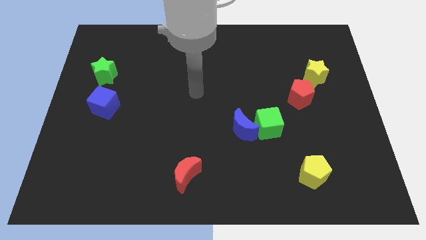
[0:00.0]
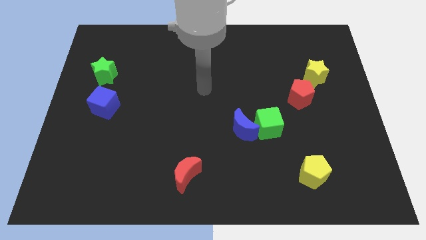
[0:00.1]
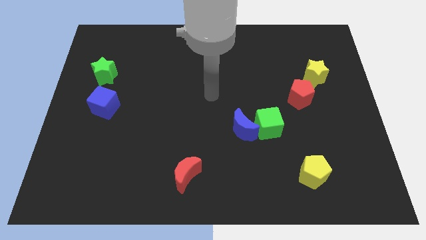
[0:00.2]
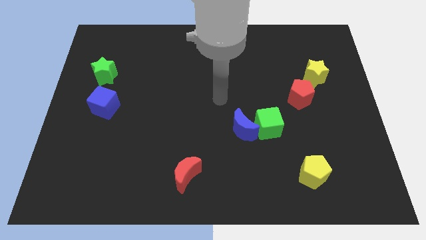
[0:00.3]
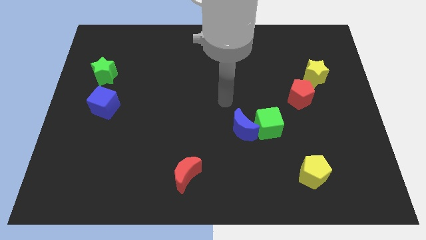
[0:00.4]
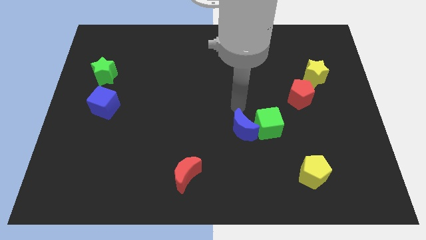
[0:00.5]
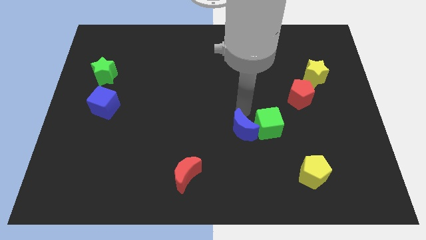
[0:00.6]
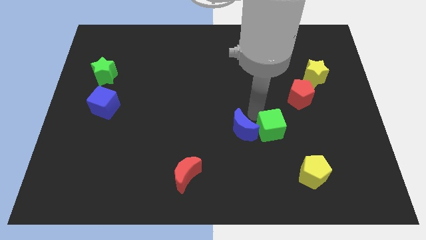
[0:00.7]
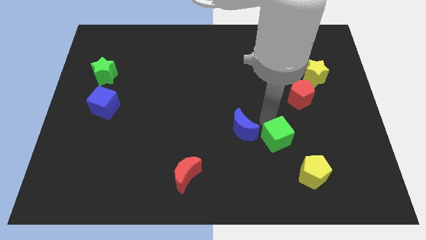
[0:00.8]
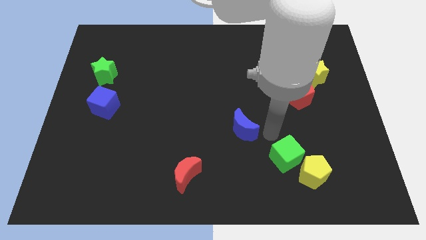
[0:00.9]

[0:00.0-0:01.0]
pull the blue moon apart from the green cube

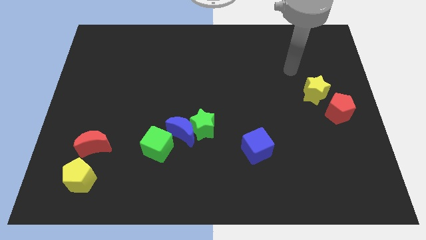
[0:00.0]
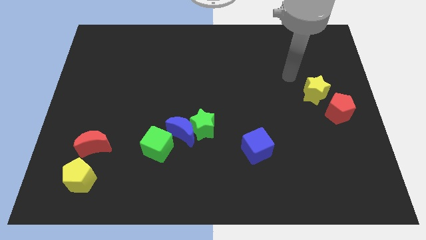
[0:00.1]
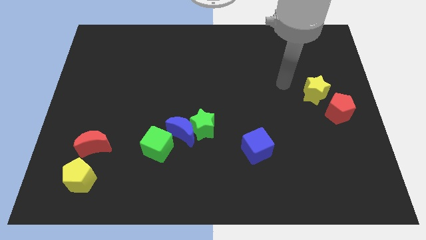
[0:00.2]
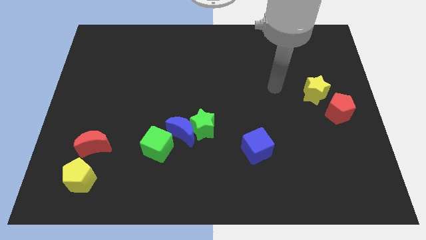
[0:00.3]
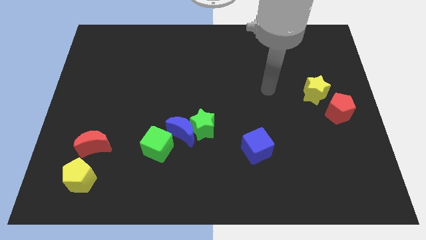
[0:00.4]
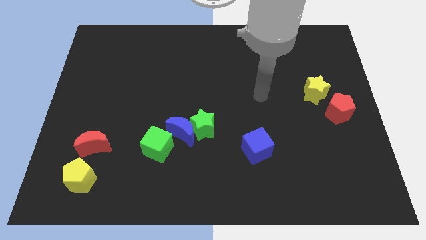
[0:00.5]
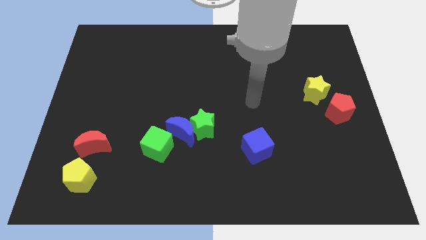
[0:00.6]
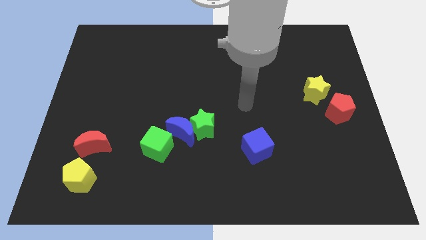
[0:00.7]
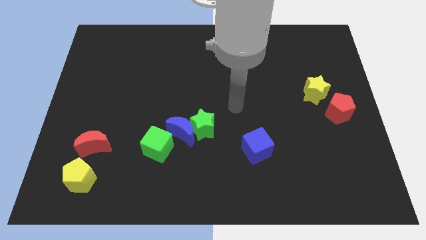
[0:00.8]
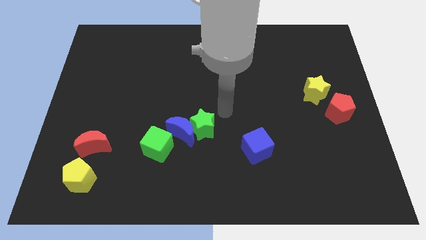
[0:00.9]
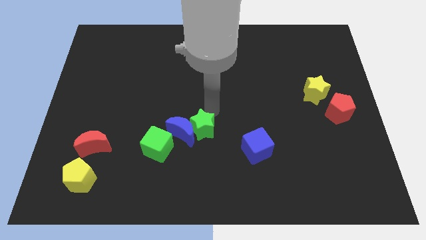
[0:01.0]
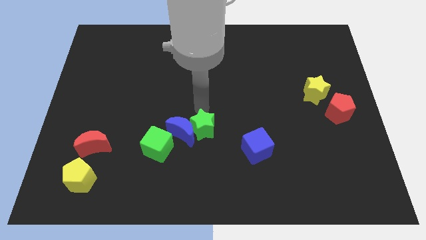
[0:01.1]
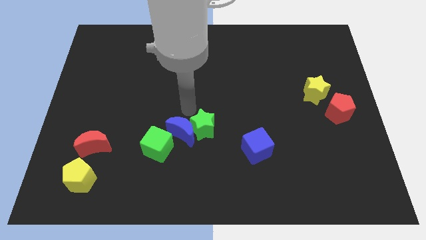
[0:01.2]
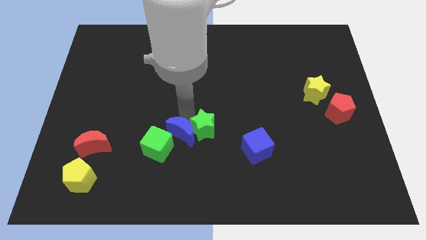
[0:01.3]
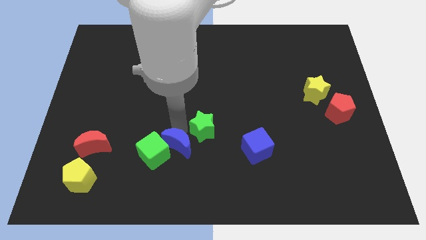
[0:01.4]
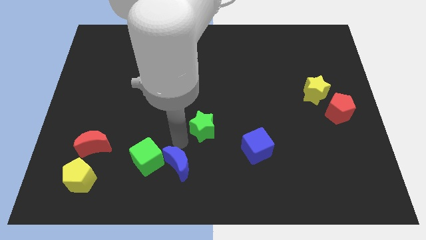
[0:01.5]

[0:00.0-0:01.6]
pull the green star apart from the blue moon

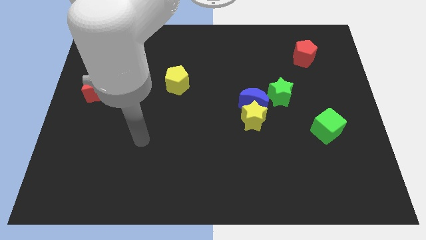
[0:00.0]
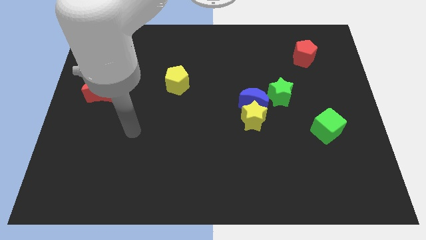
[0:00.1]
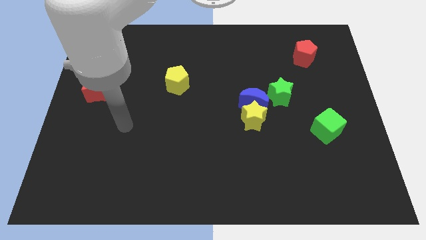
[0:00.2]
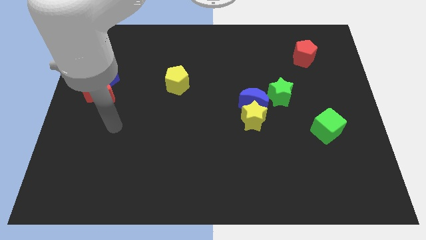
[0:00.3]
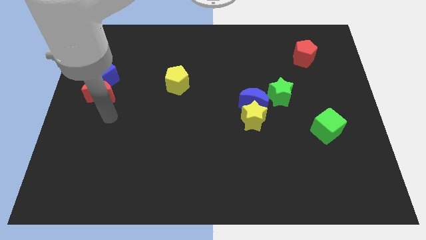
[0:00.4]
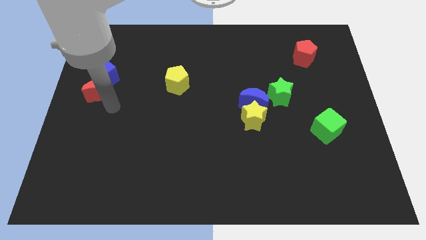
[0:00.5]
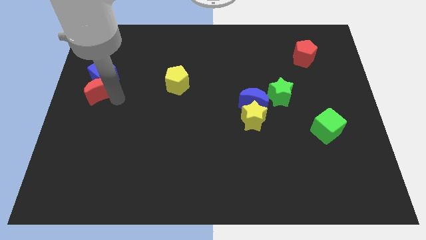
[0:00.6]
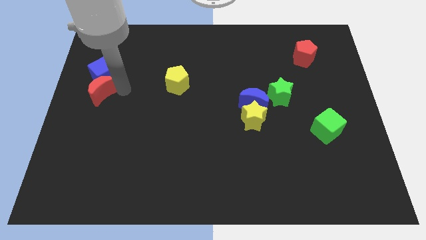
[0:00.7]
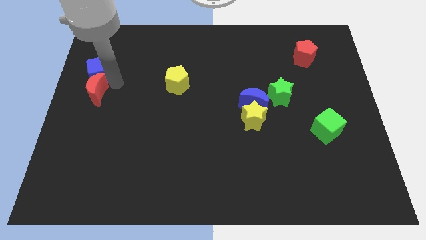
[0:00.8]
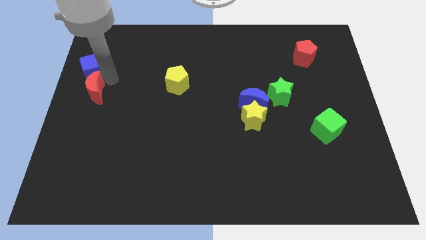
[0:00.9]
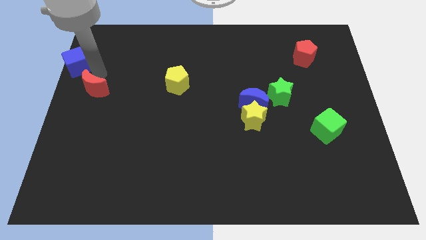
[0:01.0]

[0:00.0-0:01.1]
pull the red moon apart from the blue cube

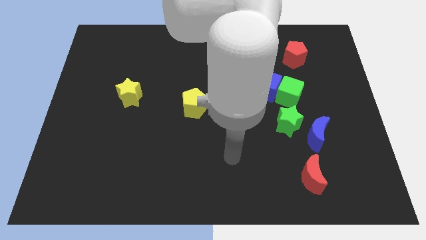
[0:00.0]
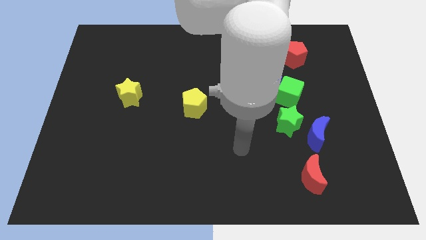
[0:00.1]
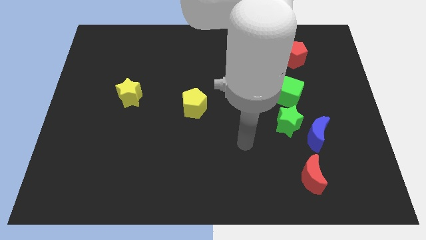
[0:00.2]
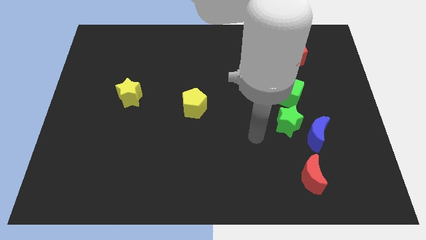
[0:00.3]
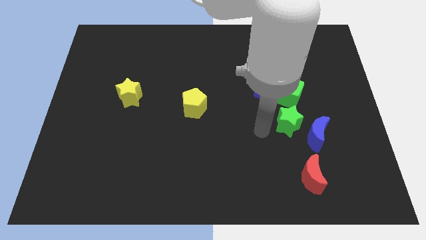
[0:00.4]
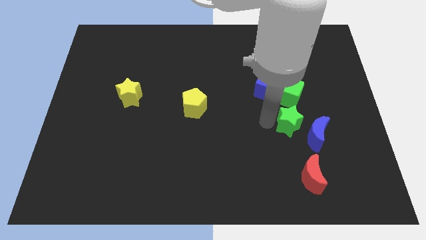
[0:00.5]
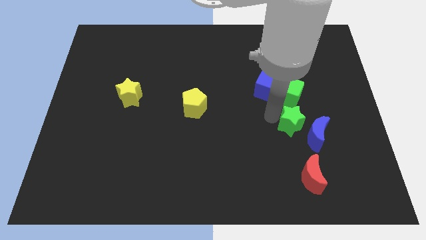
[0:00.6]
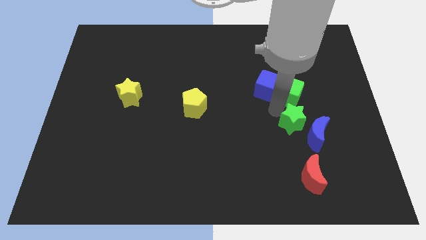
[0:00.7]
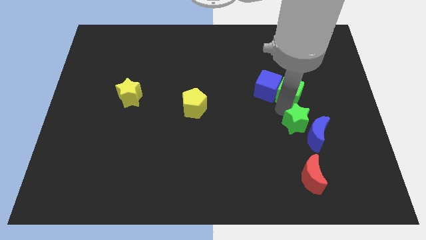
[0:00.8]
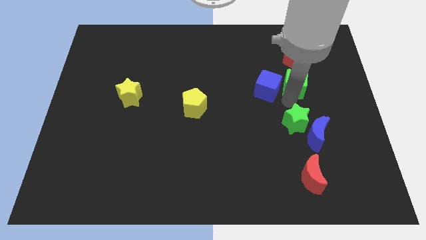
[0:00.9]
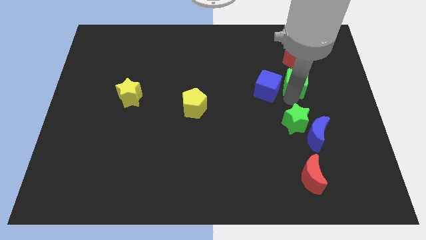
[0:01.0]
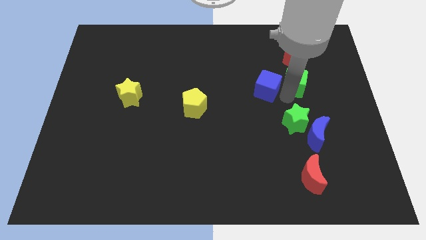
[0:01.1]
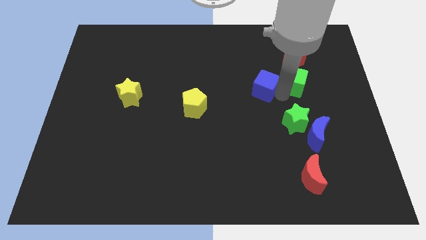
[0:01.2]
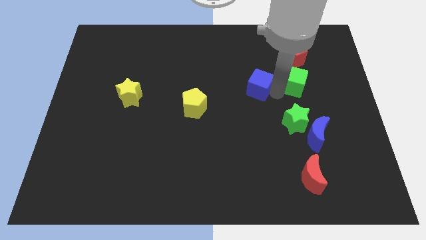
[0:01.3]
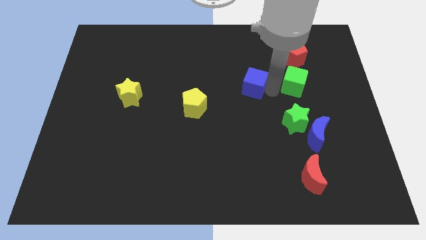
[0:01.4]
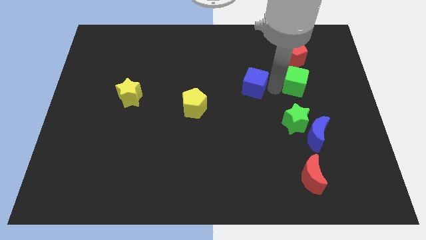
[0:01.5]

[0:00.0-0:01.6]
pull the blue cube apart from the green cube

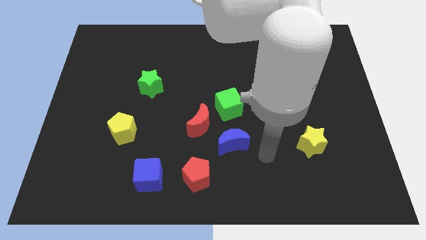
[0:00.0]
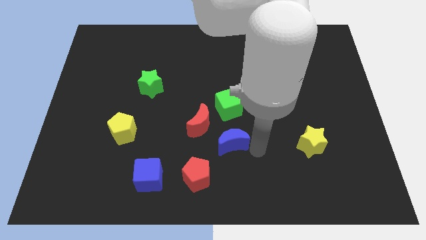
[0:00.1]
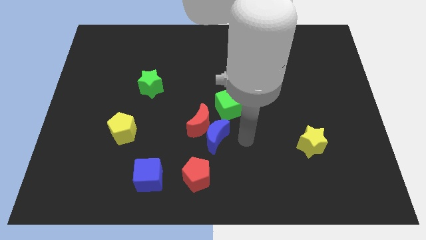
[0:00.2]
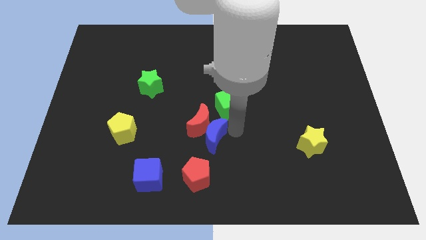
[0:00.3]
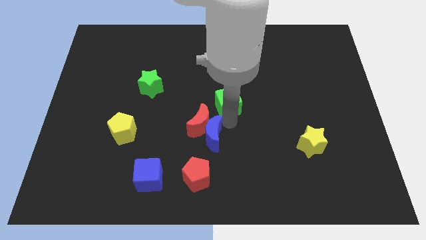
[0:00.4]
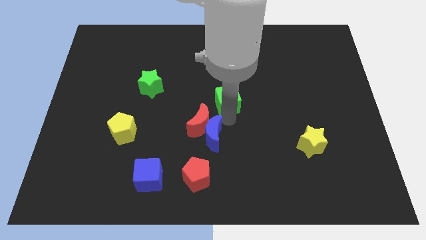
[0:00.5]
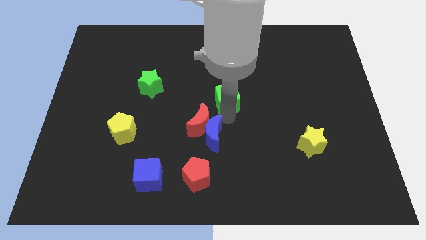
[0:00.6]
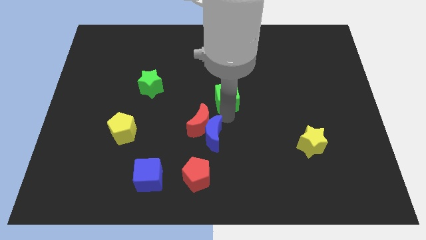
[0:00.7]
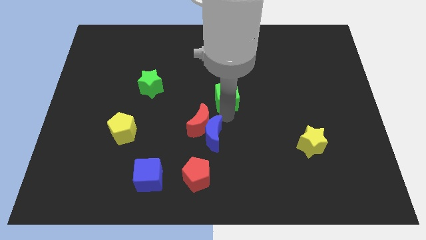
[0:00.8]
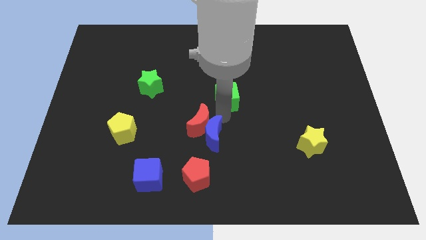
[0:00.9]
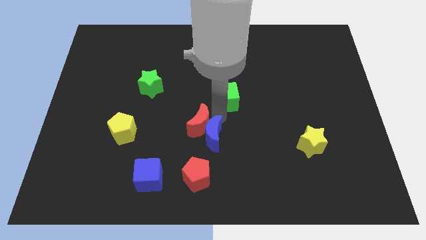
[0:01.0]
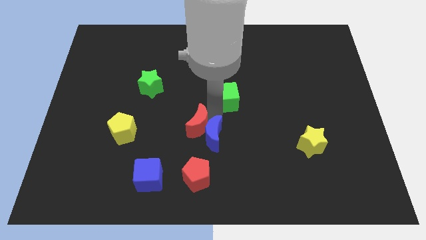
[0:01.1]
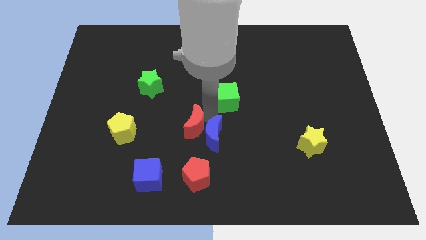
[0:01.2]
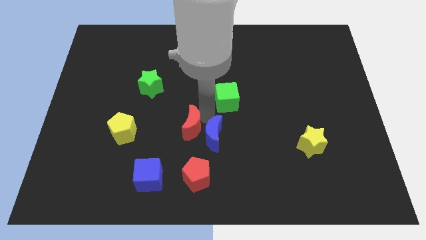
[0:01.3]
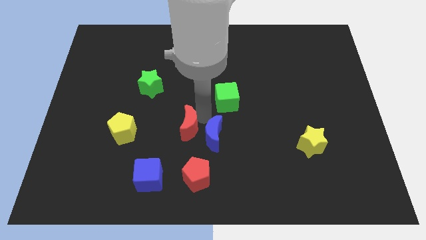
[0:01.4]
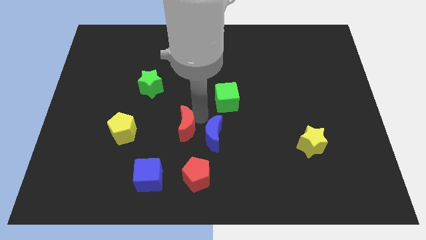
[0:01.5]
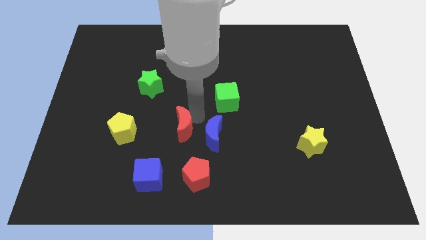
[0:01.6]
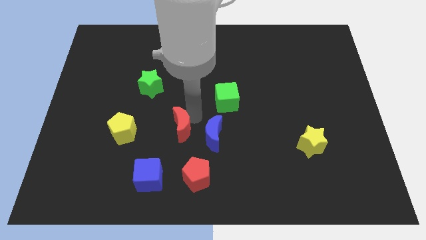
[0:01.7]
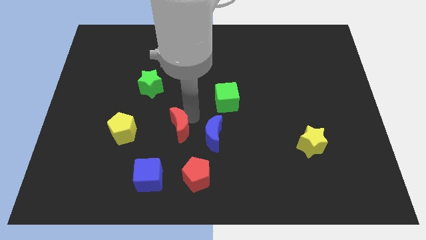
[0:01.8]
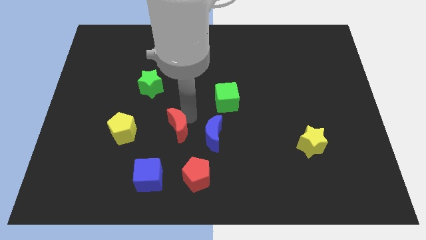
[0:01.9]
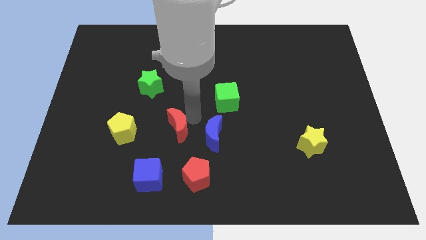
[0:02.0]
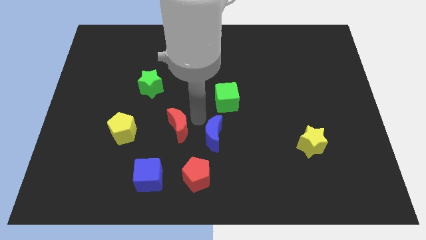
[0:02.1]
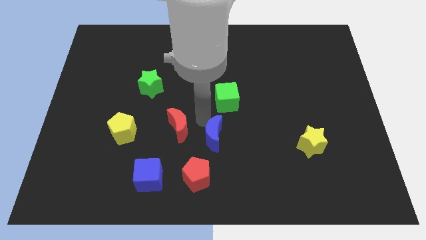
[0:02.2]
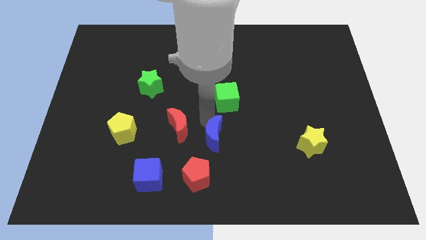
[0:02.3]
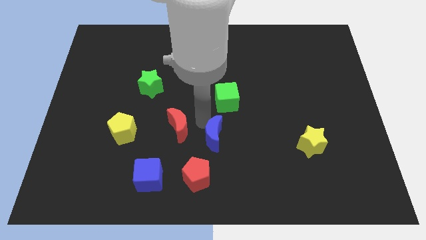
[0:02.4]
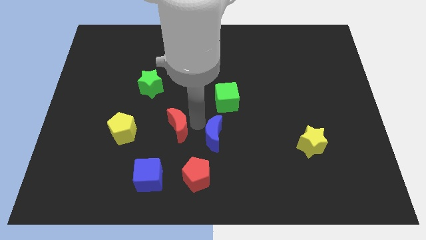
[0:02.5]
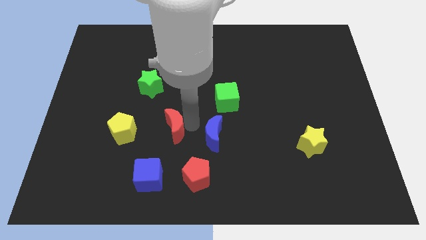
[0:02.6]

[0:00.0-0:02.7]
pull the red moon apart from the green cube and blue moon

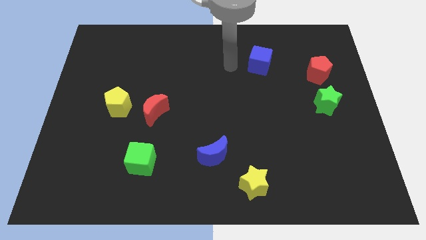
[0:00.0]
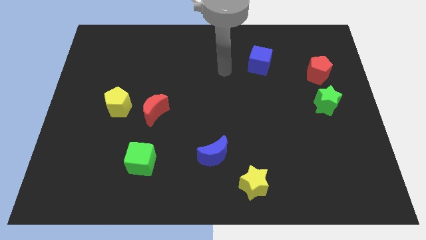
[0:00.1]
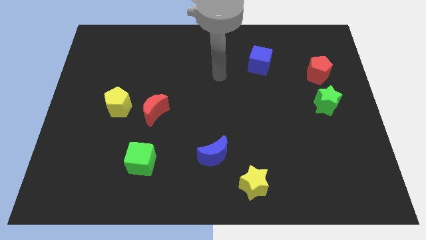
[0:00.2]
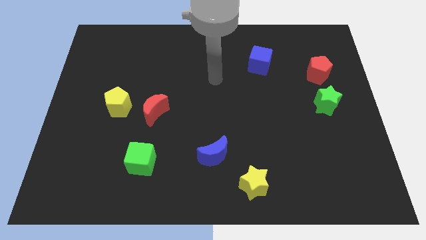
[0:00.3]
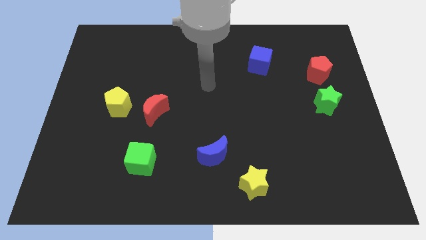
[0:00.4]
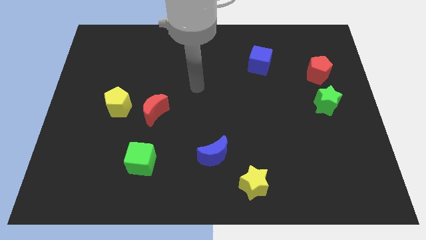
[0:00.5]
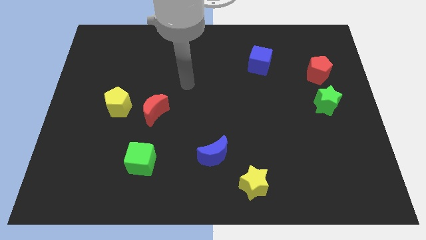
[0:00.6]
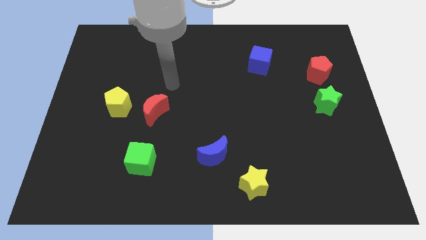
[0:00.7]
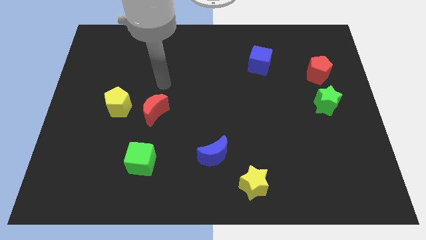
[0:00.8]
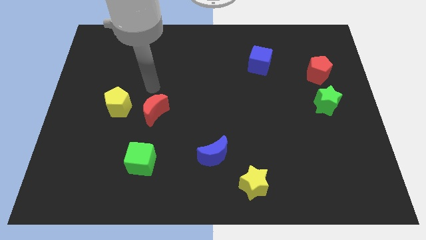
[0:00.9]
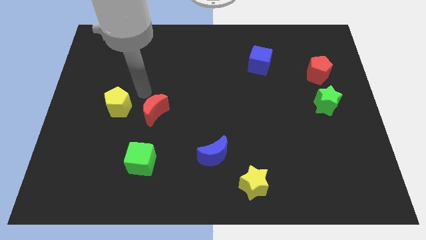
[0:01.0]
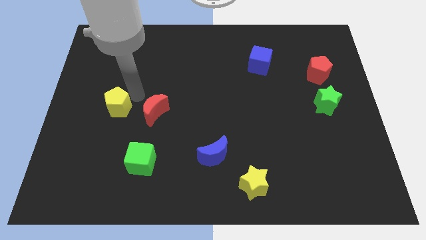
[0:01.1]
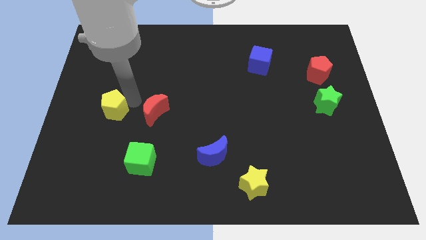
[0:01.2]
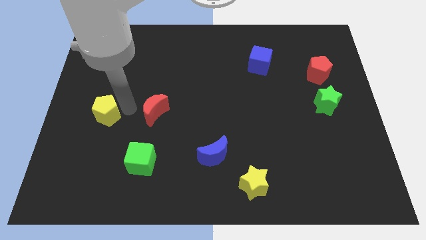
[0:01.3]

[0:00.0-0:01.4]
move the red moon away from the yellow pentagon
